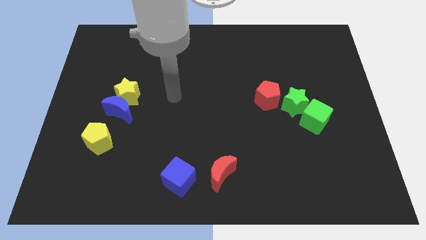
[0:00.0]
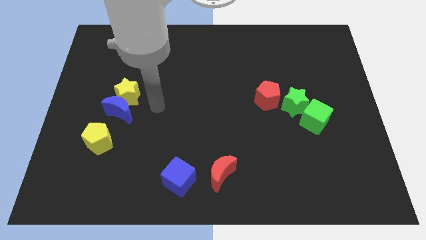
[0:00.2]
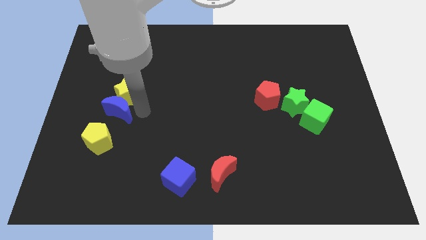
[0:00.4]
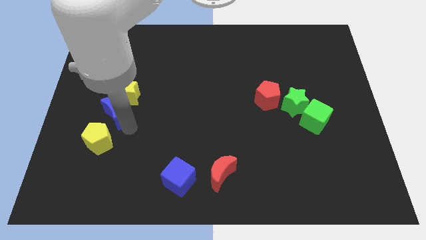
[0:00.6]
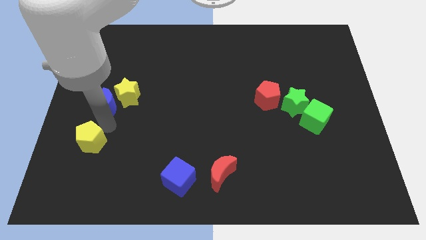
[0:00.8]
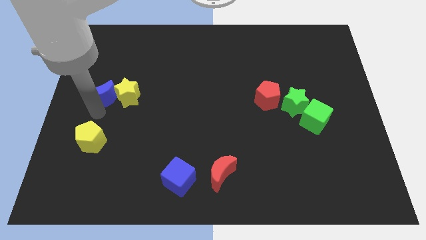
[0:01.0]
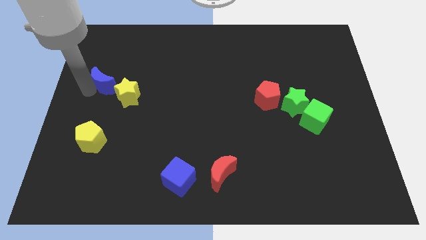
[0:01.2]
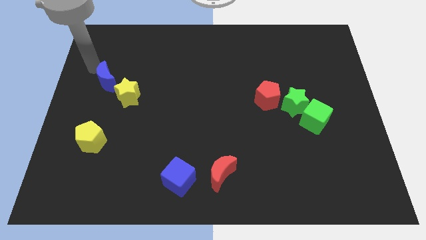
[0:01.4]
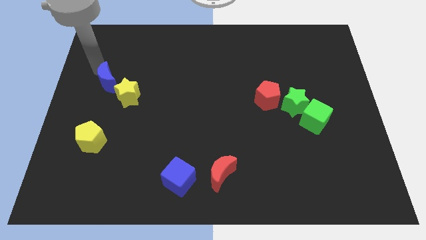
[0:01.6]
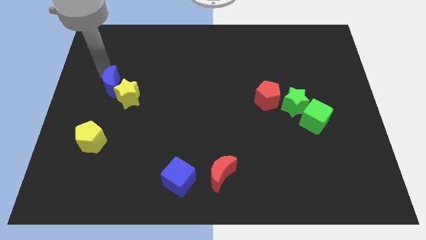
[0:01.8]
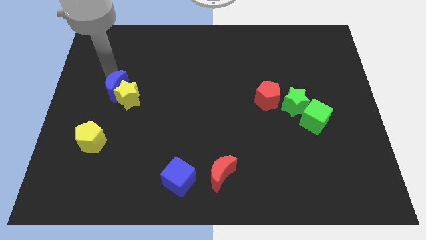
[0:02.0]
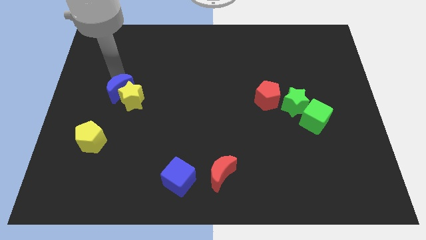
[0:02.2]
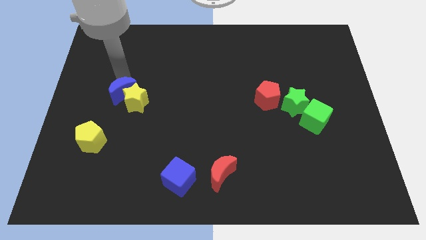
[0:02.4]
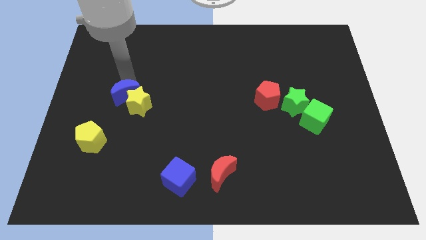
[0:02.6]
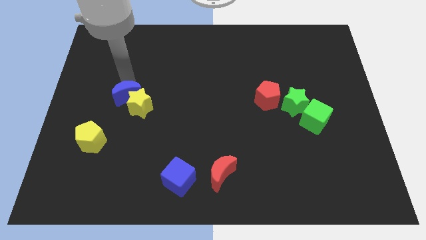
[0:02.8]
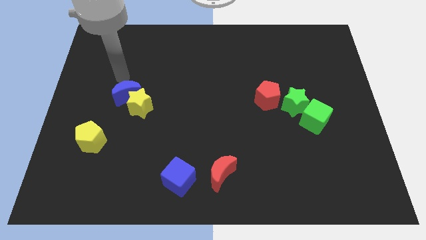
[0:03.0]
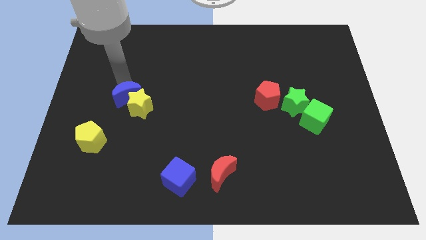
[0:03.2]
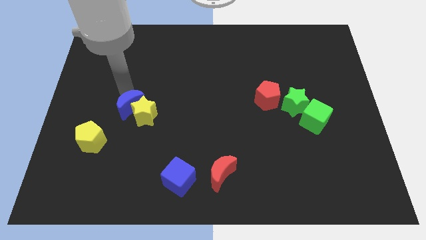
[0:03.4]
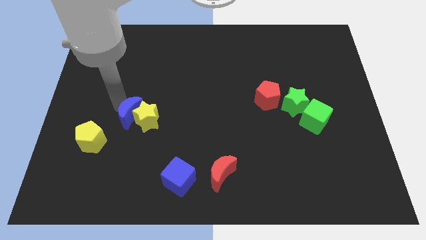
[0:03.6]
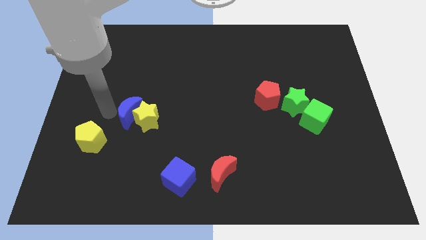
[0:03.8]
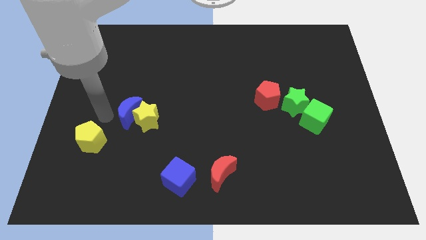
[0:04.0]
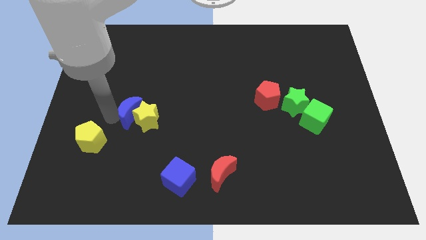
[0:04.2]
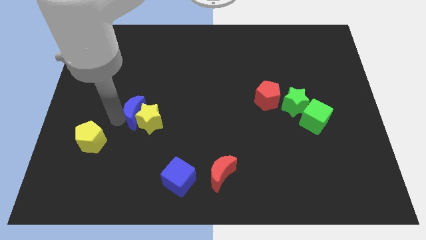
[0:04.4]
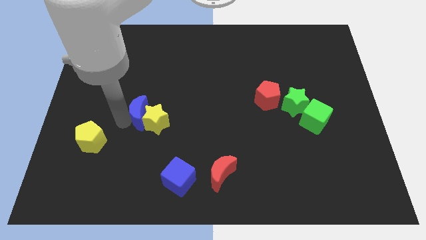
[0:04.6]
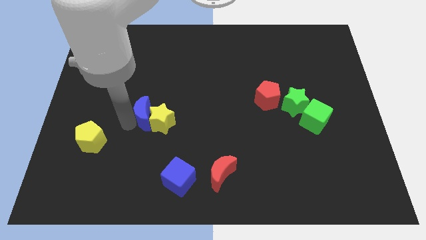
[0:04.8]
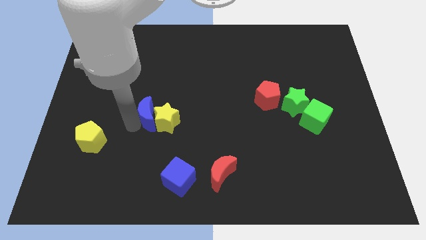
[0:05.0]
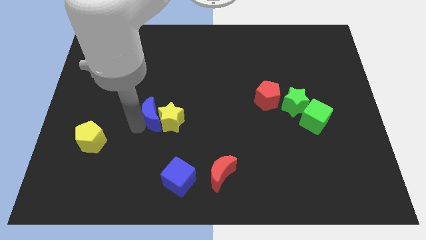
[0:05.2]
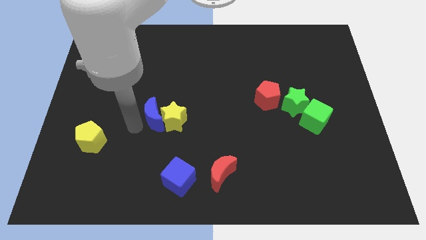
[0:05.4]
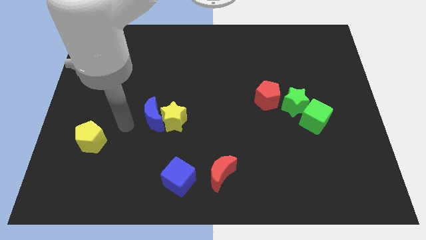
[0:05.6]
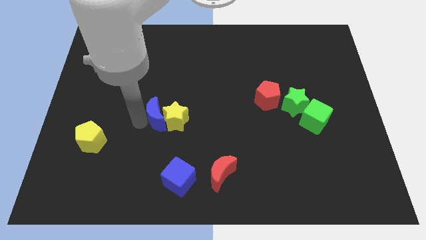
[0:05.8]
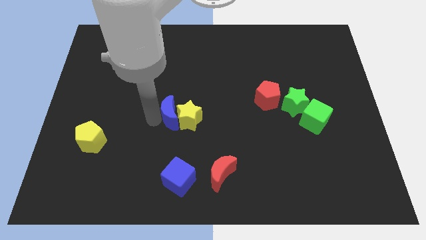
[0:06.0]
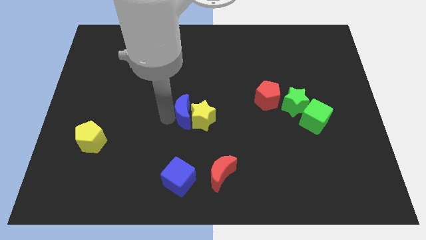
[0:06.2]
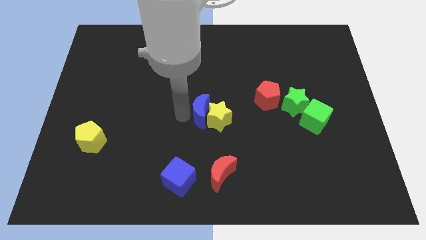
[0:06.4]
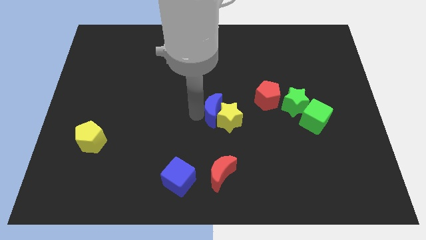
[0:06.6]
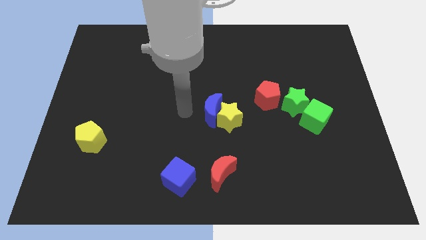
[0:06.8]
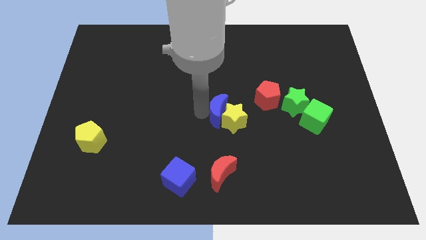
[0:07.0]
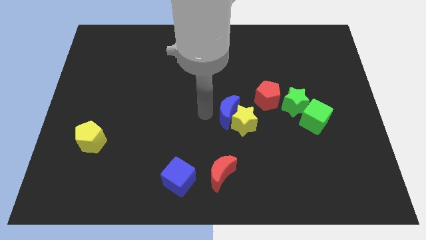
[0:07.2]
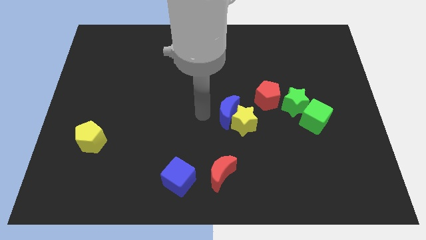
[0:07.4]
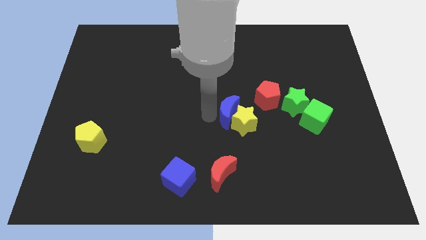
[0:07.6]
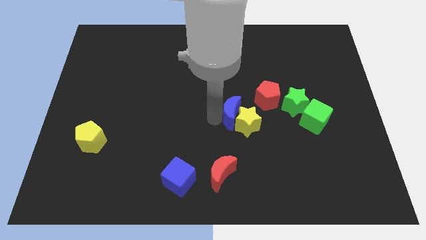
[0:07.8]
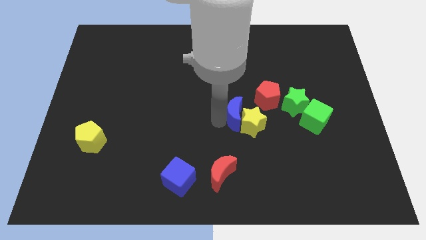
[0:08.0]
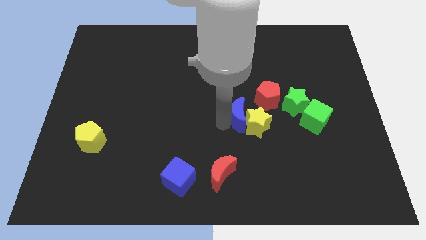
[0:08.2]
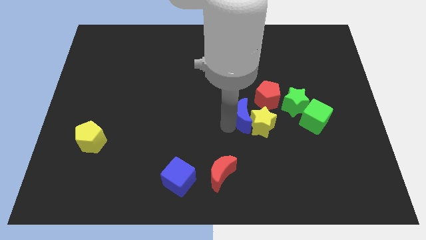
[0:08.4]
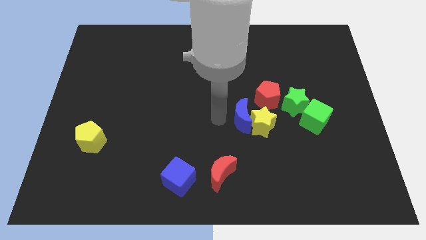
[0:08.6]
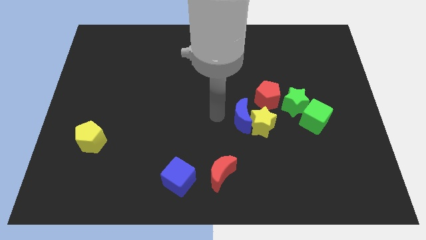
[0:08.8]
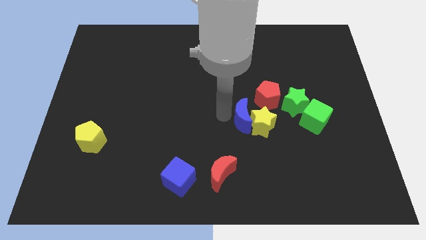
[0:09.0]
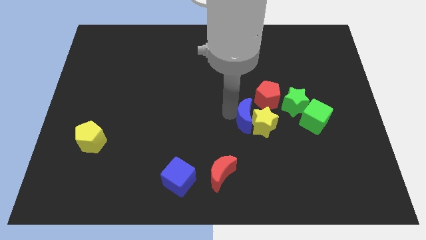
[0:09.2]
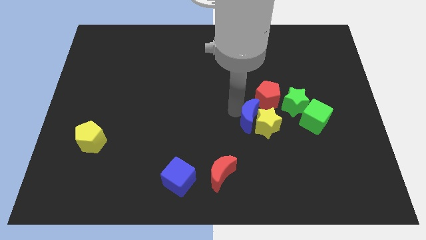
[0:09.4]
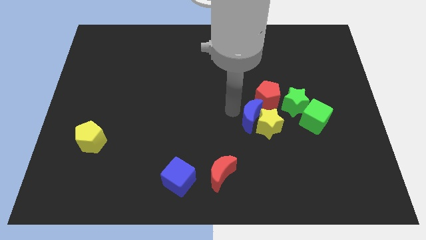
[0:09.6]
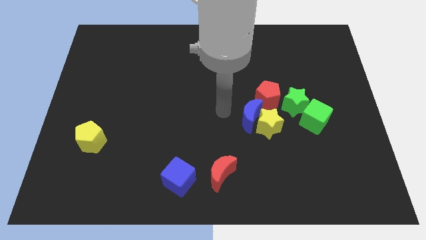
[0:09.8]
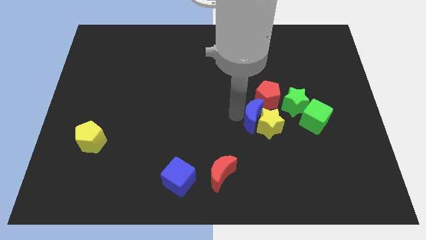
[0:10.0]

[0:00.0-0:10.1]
push the blue moon to the bottom left side of the green star

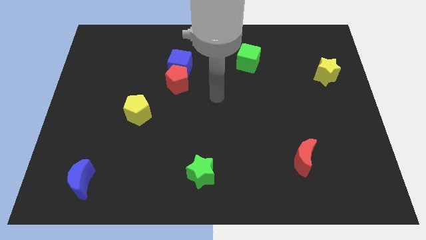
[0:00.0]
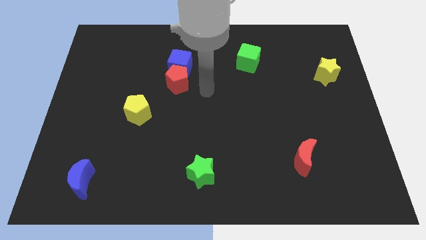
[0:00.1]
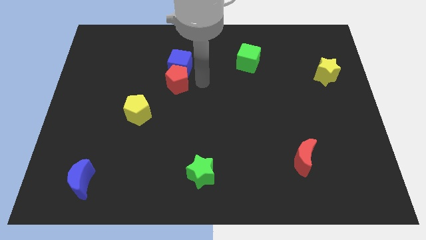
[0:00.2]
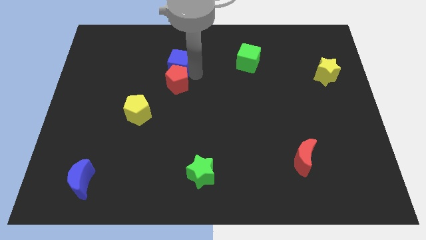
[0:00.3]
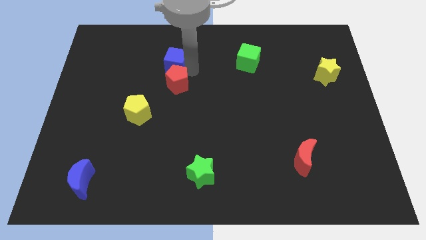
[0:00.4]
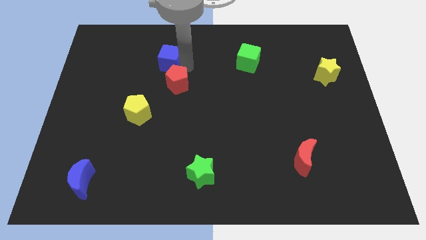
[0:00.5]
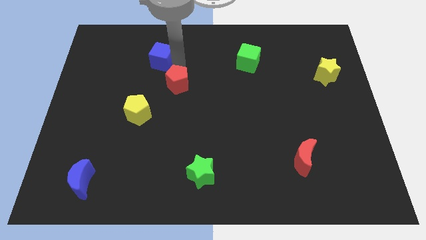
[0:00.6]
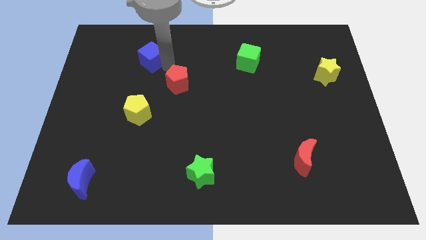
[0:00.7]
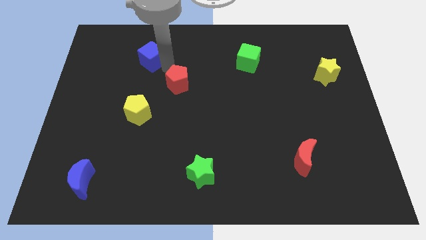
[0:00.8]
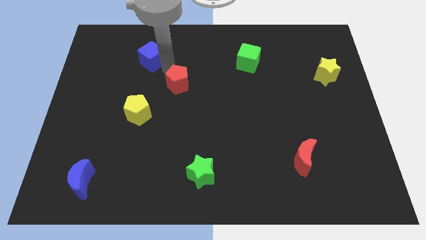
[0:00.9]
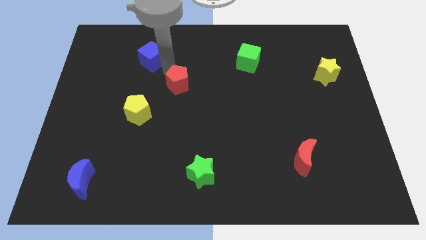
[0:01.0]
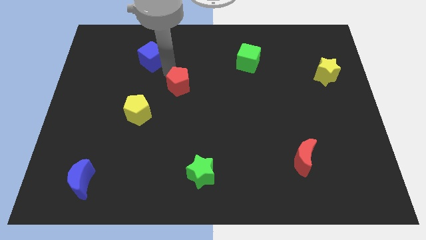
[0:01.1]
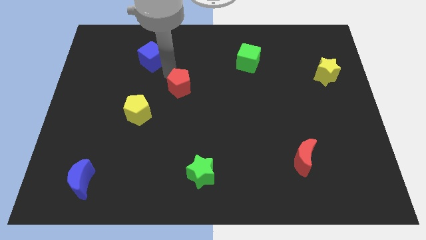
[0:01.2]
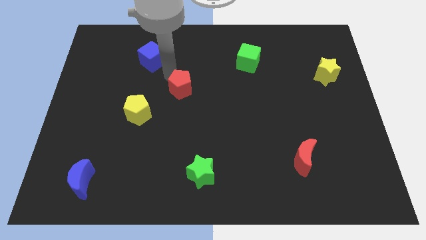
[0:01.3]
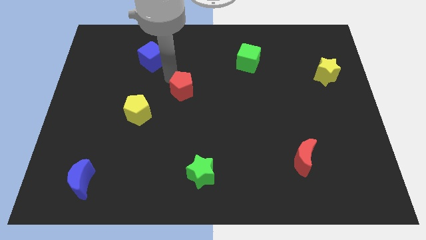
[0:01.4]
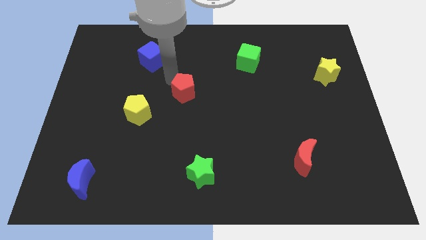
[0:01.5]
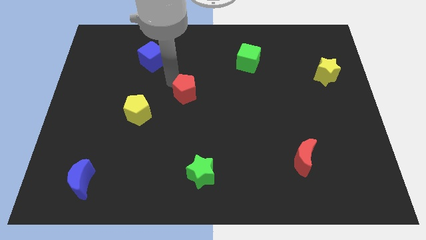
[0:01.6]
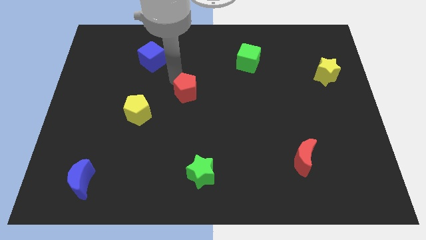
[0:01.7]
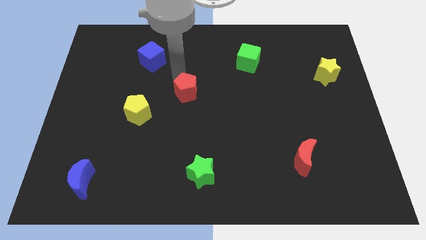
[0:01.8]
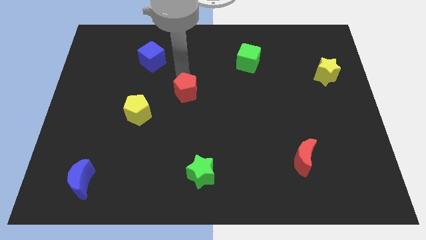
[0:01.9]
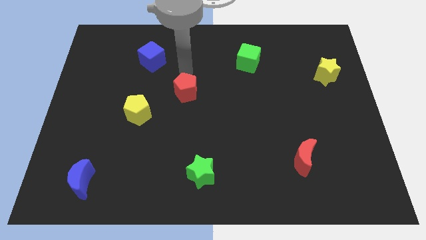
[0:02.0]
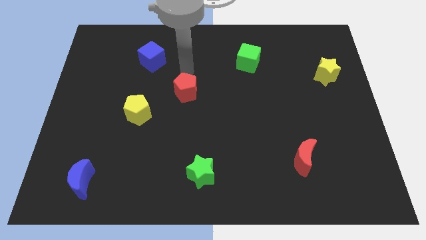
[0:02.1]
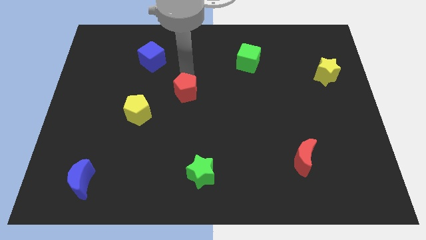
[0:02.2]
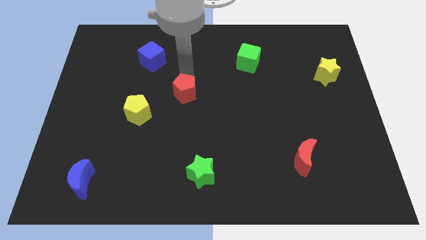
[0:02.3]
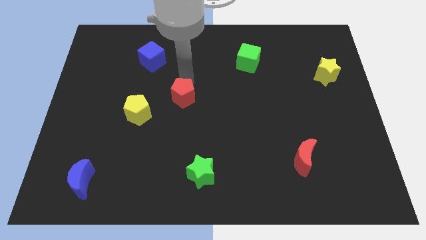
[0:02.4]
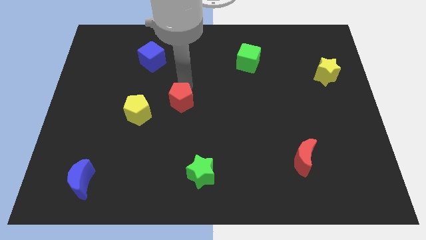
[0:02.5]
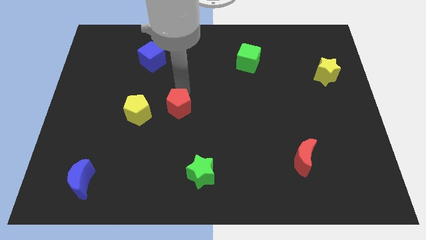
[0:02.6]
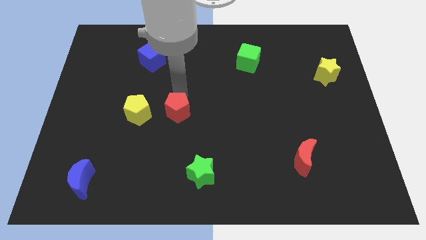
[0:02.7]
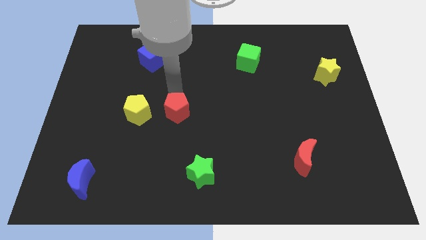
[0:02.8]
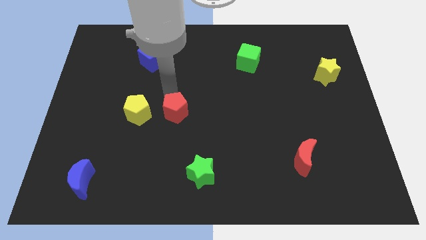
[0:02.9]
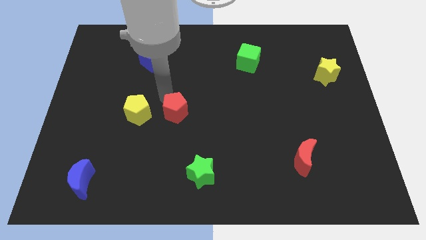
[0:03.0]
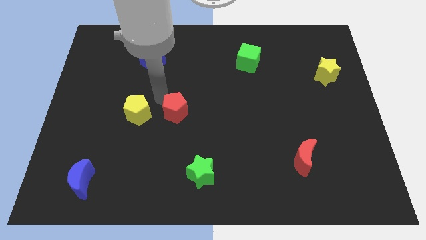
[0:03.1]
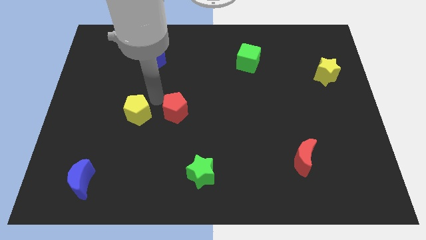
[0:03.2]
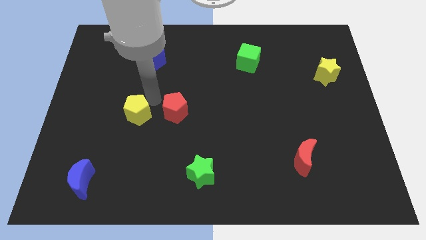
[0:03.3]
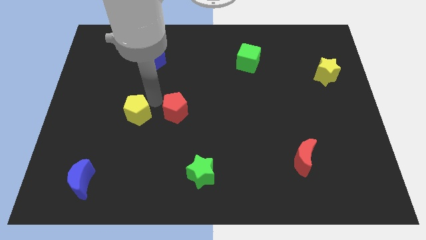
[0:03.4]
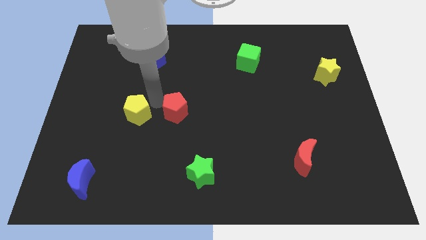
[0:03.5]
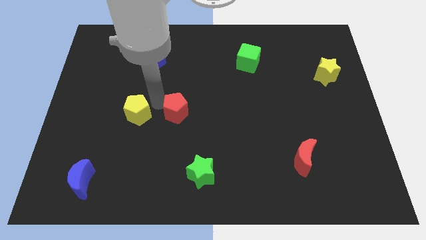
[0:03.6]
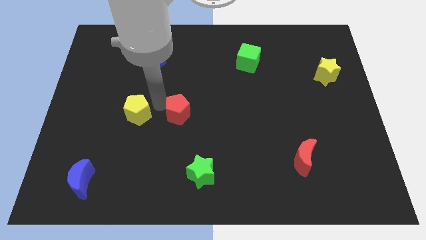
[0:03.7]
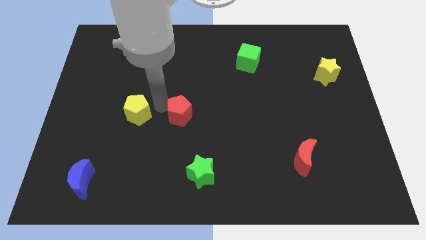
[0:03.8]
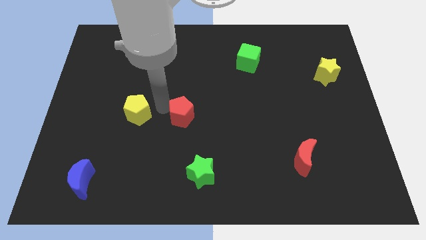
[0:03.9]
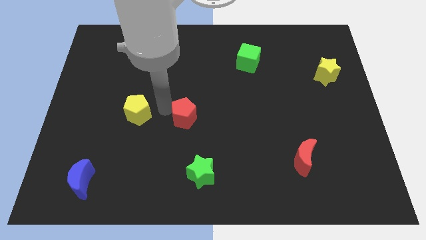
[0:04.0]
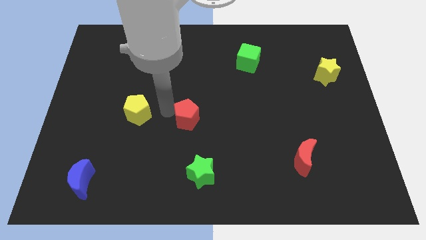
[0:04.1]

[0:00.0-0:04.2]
put the red pentagon above the green star
